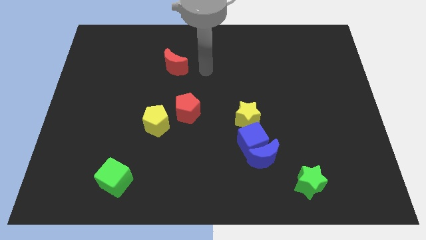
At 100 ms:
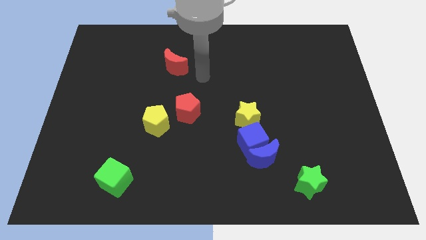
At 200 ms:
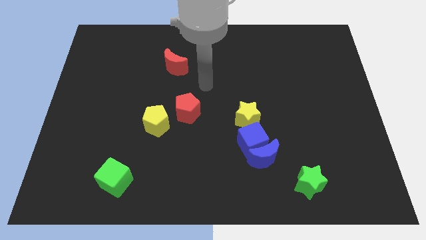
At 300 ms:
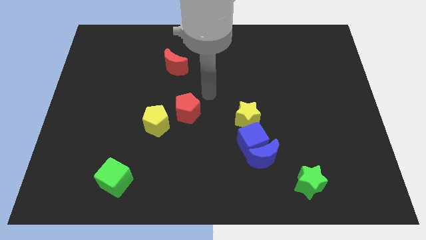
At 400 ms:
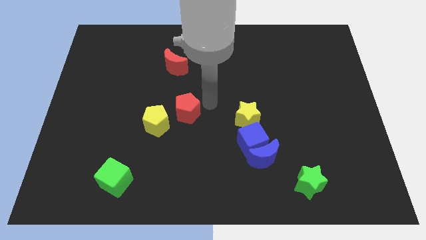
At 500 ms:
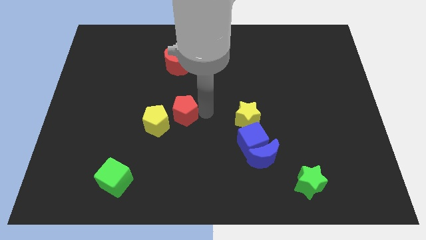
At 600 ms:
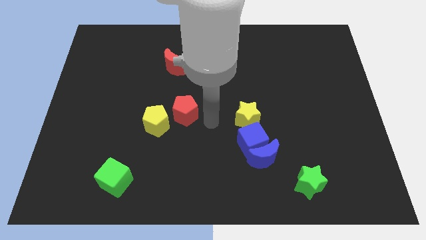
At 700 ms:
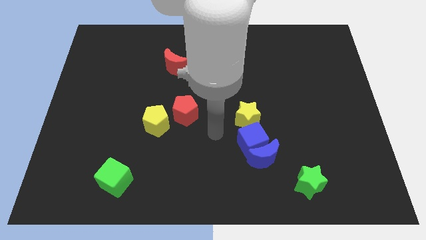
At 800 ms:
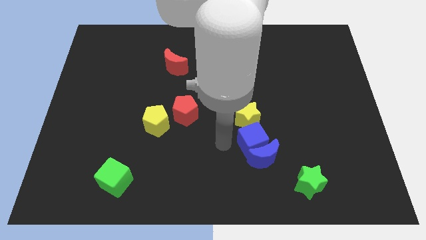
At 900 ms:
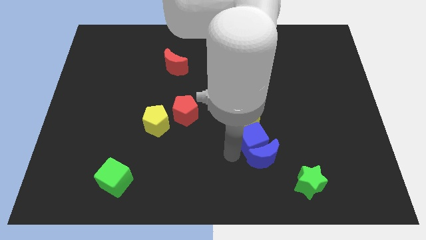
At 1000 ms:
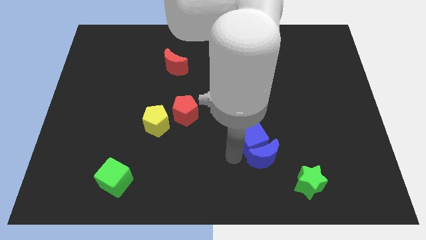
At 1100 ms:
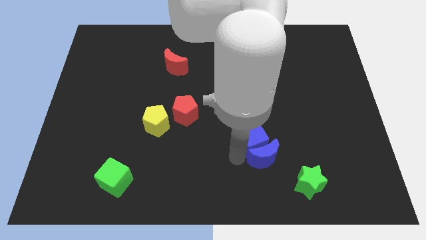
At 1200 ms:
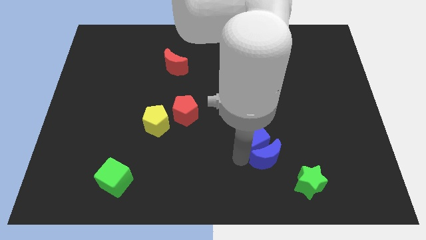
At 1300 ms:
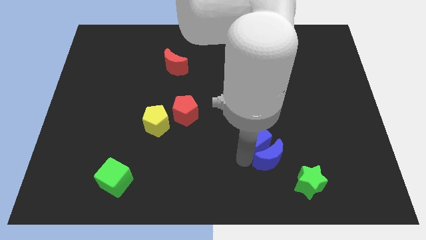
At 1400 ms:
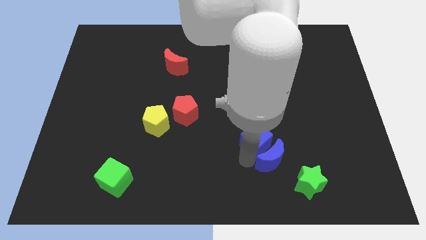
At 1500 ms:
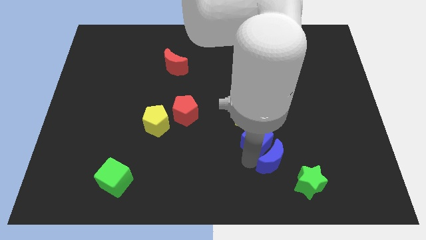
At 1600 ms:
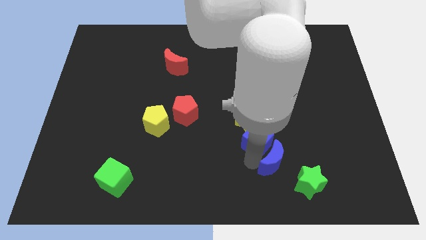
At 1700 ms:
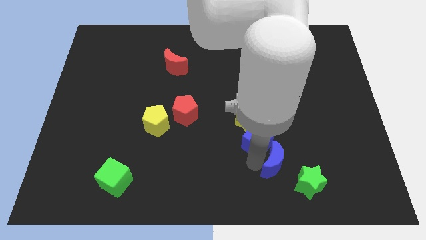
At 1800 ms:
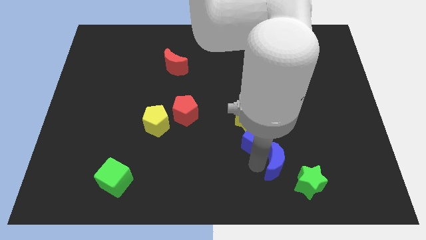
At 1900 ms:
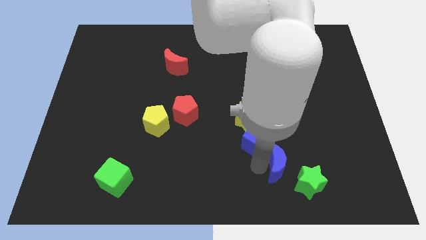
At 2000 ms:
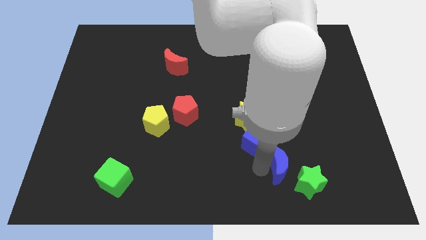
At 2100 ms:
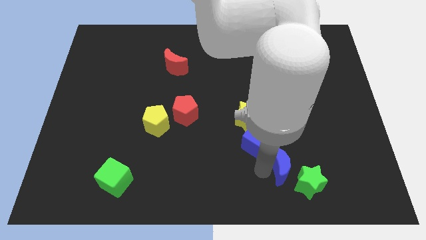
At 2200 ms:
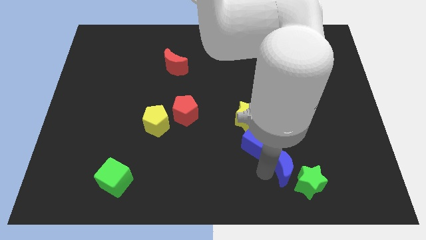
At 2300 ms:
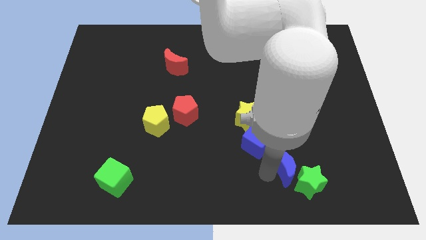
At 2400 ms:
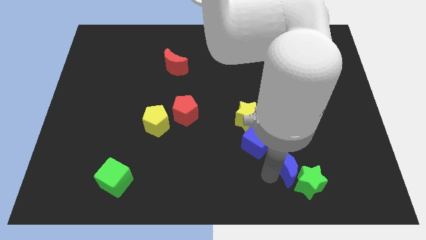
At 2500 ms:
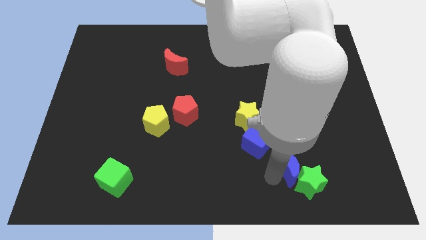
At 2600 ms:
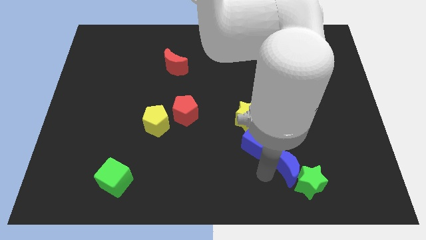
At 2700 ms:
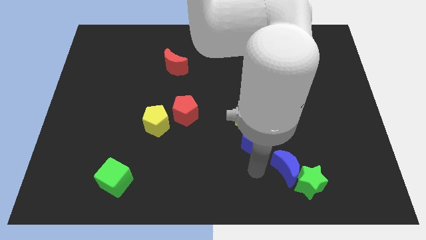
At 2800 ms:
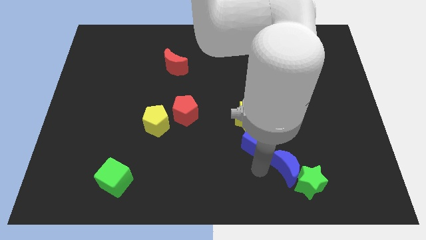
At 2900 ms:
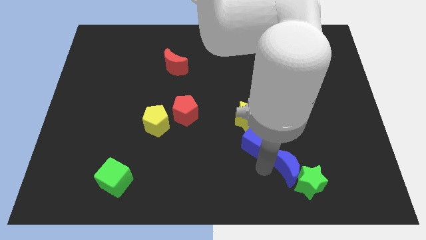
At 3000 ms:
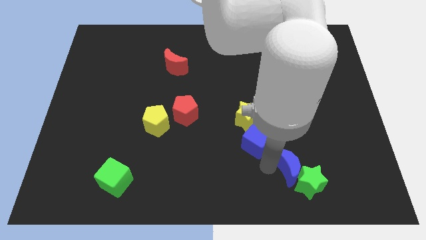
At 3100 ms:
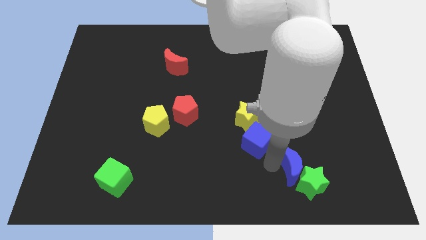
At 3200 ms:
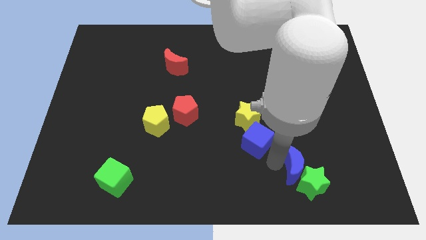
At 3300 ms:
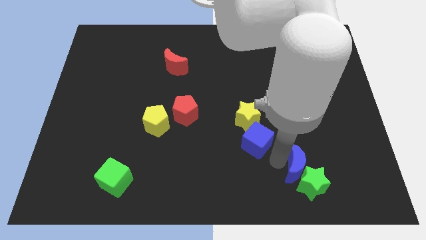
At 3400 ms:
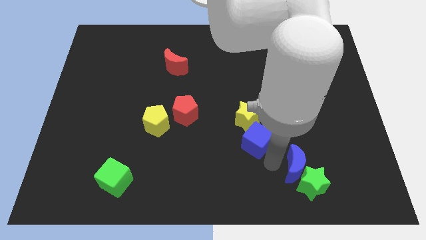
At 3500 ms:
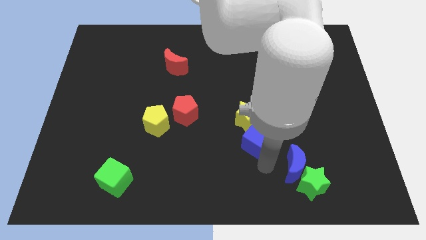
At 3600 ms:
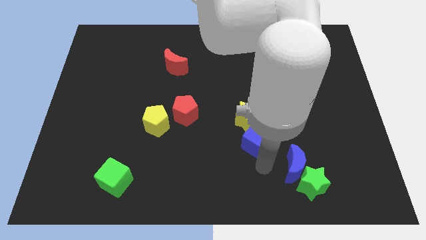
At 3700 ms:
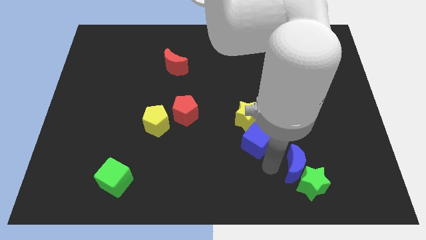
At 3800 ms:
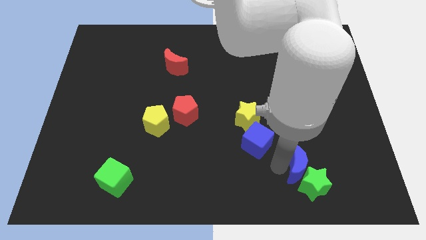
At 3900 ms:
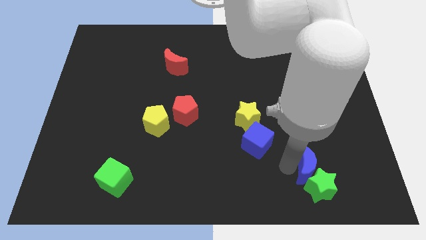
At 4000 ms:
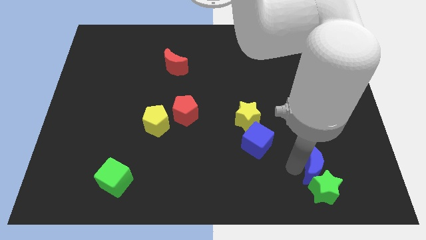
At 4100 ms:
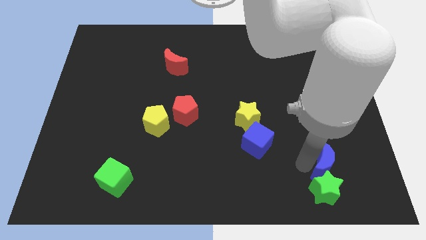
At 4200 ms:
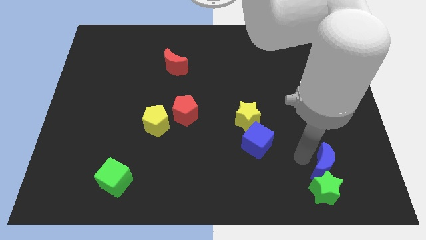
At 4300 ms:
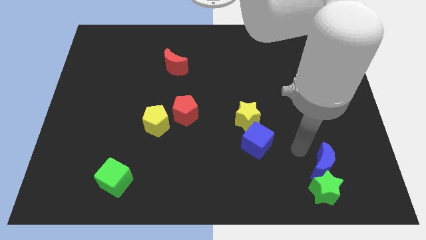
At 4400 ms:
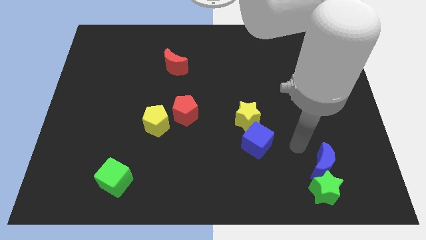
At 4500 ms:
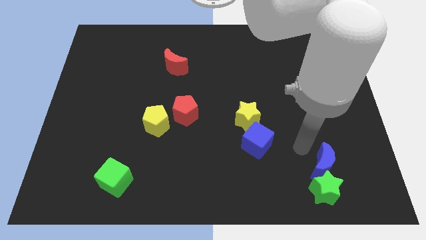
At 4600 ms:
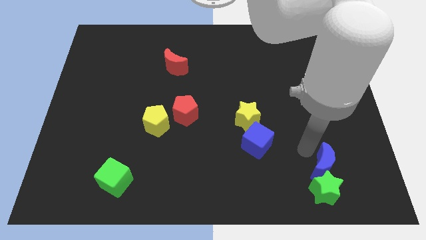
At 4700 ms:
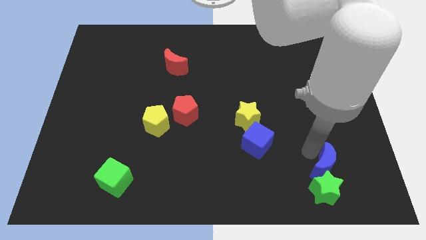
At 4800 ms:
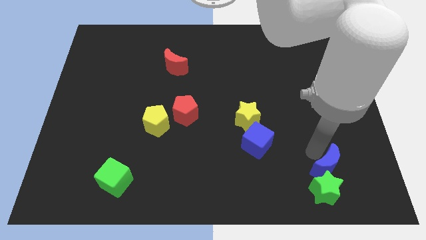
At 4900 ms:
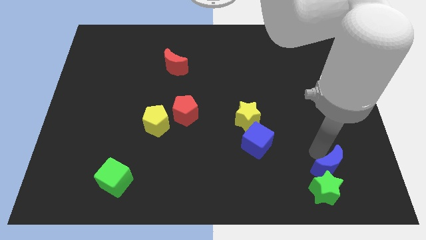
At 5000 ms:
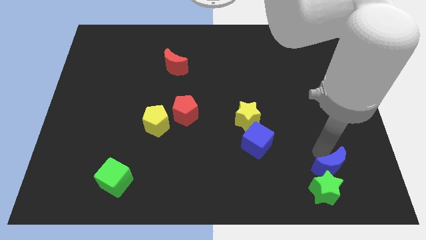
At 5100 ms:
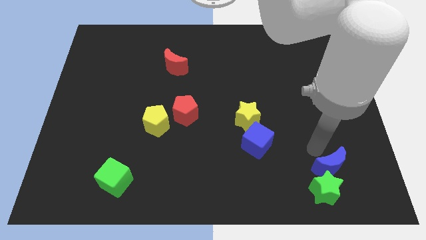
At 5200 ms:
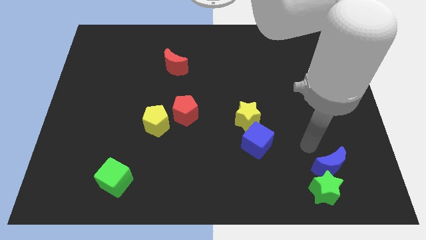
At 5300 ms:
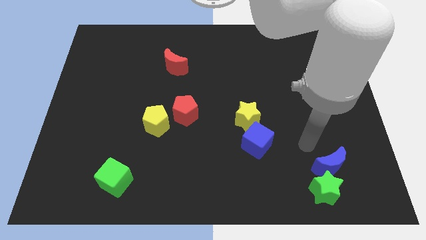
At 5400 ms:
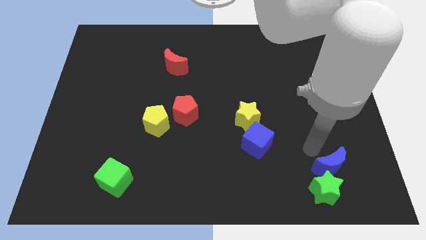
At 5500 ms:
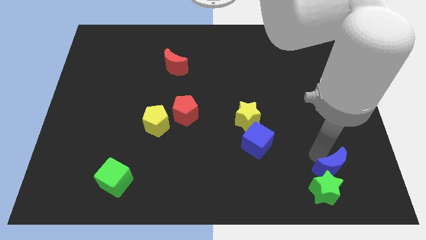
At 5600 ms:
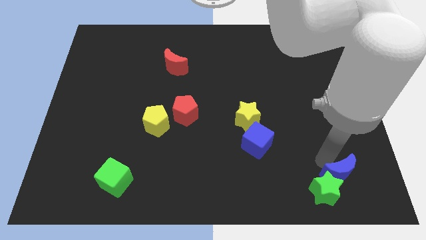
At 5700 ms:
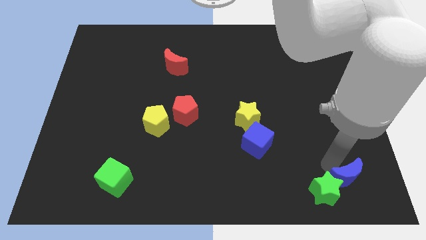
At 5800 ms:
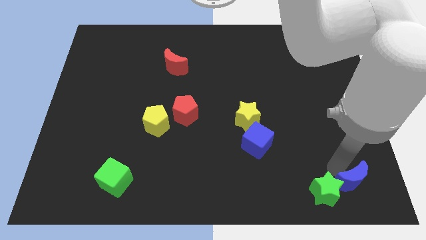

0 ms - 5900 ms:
move the blue moon to the lower right corner
